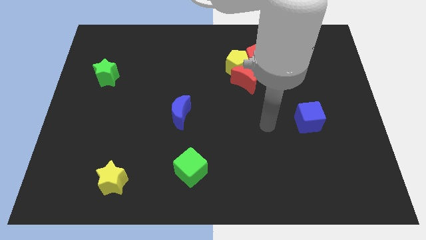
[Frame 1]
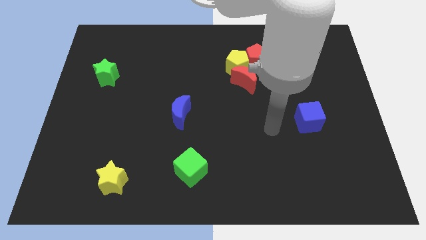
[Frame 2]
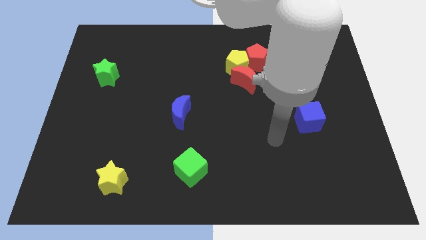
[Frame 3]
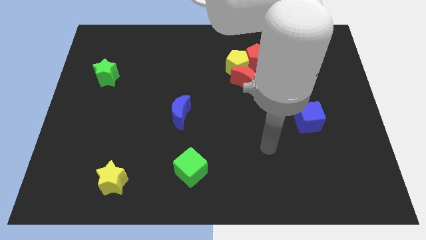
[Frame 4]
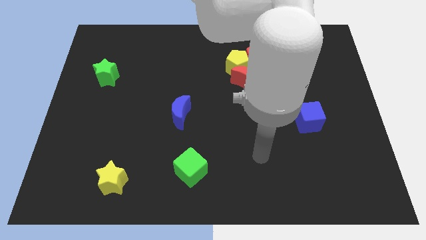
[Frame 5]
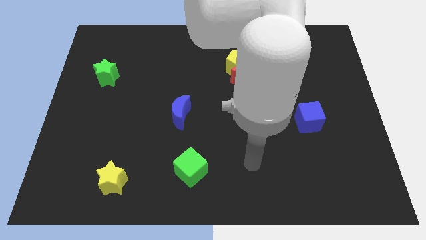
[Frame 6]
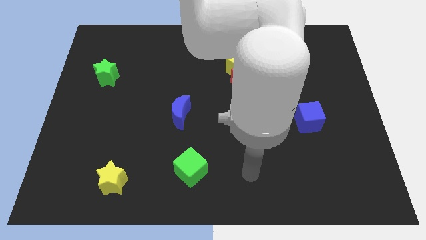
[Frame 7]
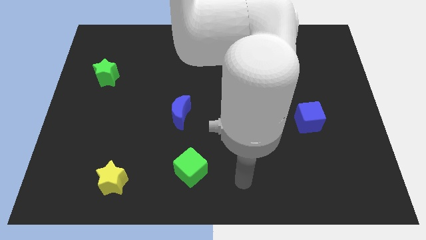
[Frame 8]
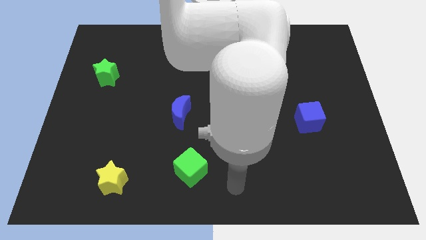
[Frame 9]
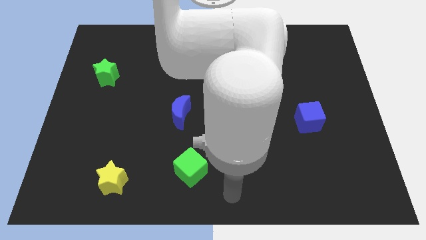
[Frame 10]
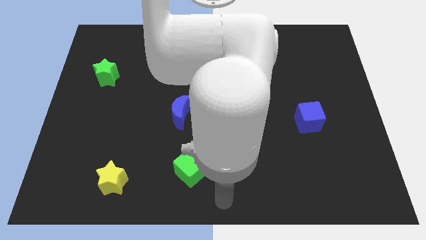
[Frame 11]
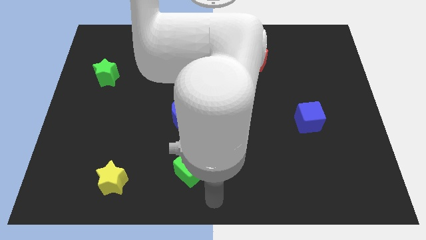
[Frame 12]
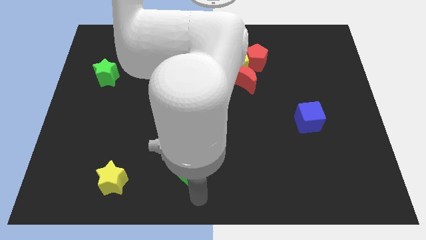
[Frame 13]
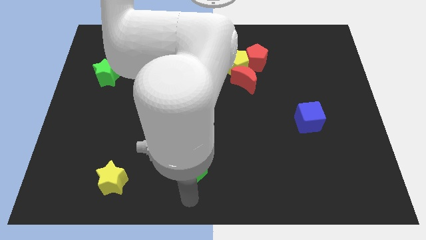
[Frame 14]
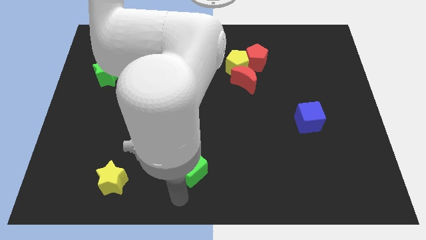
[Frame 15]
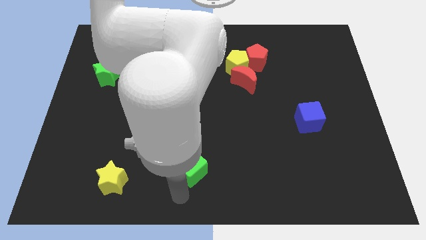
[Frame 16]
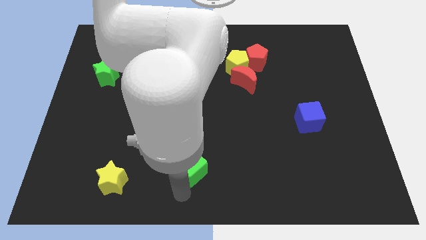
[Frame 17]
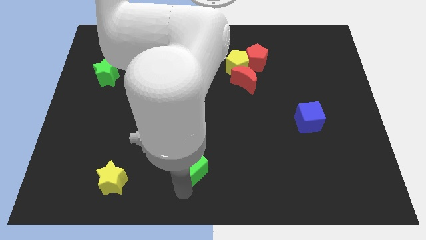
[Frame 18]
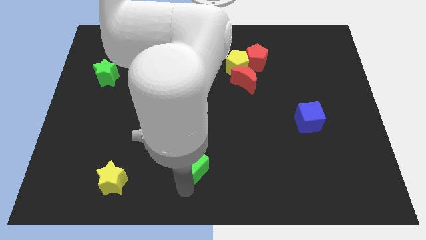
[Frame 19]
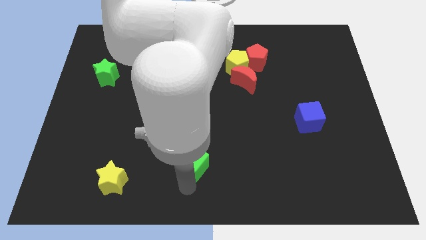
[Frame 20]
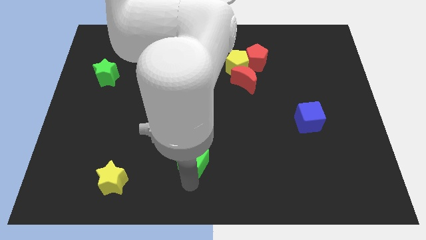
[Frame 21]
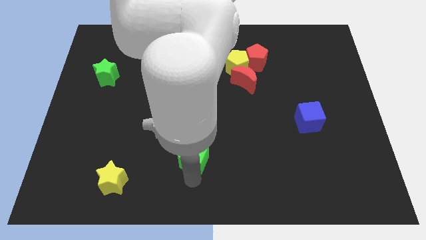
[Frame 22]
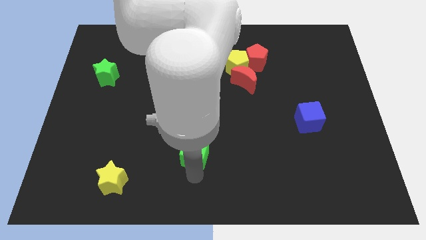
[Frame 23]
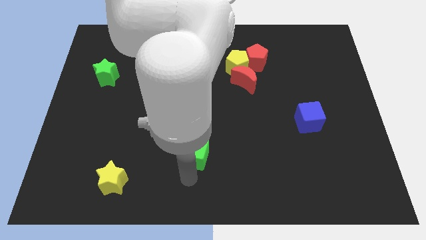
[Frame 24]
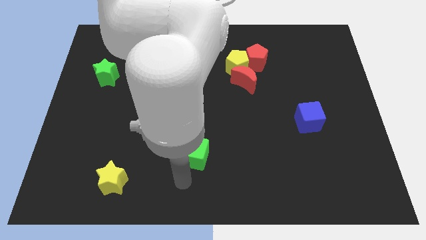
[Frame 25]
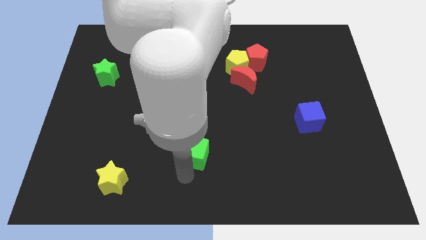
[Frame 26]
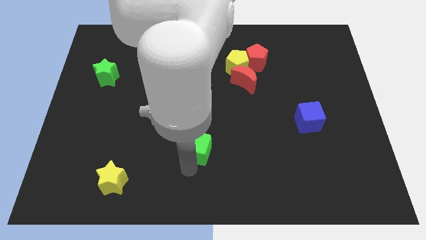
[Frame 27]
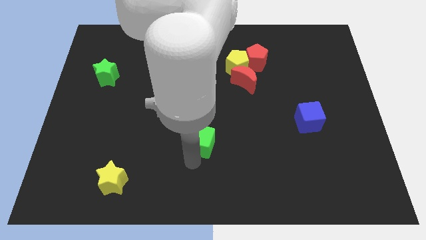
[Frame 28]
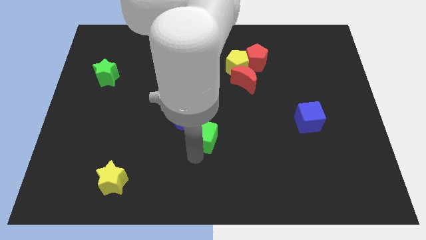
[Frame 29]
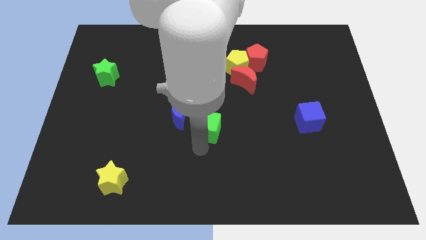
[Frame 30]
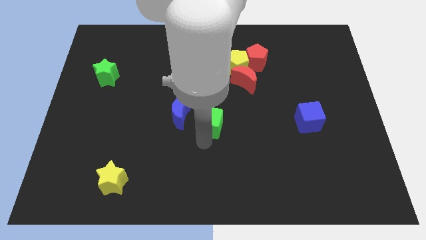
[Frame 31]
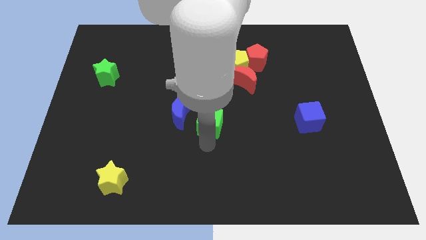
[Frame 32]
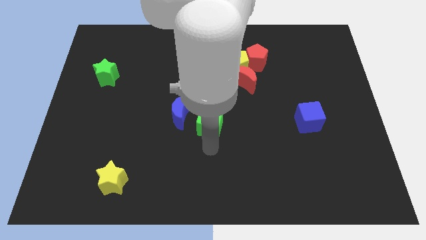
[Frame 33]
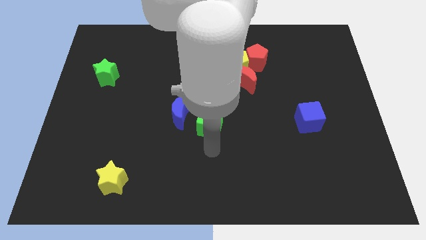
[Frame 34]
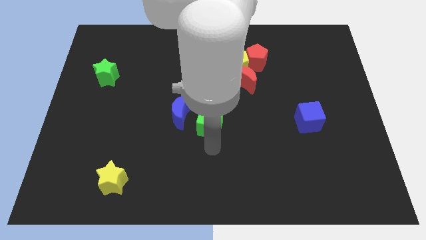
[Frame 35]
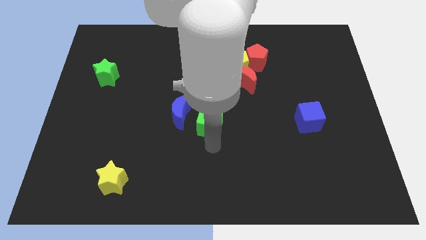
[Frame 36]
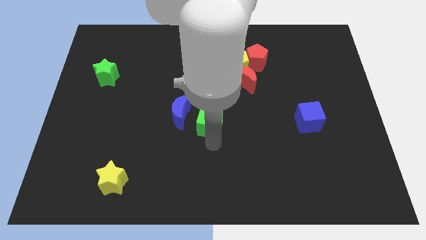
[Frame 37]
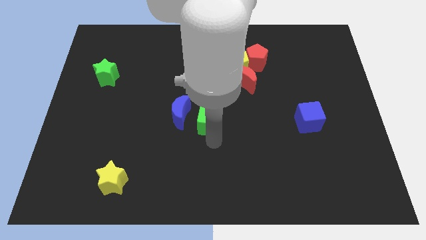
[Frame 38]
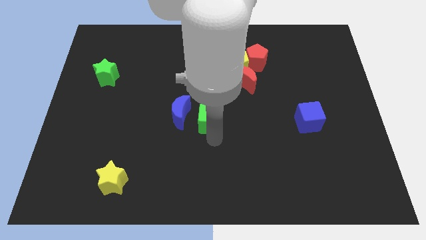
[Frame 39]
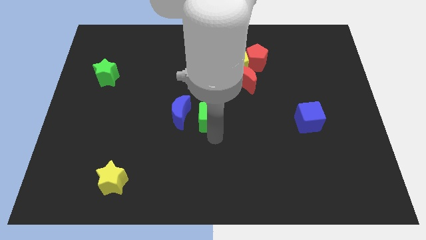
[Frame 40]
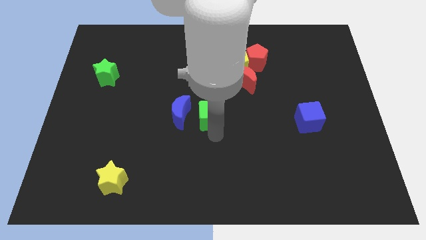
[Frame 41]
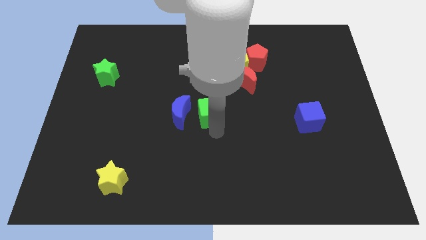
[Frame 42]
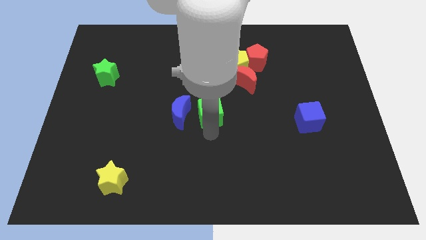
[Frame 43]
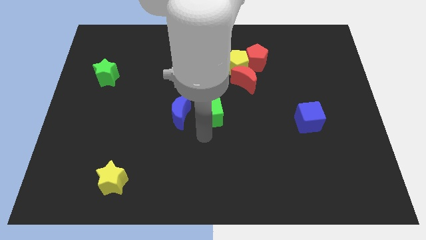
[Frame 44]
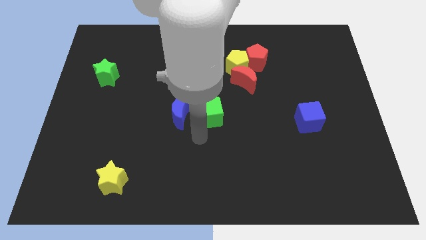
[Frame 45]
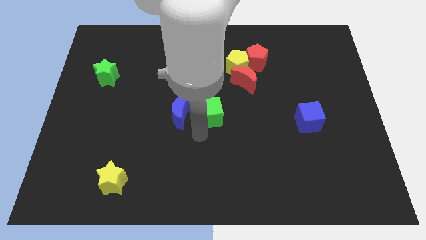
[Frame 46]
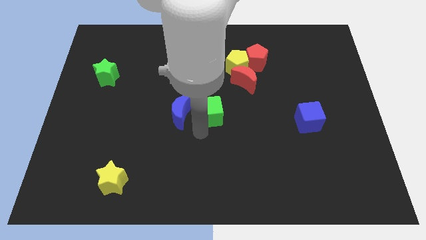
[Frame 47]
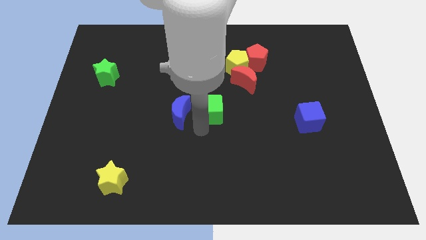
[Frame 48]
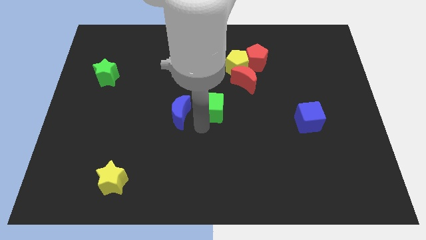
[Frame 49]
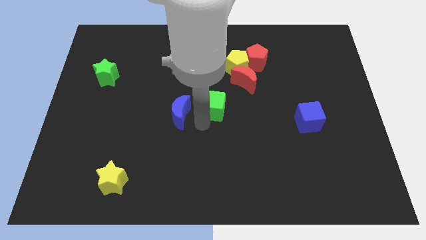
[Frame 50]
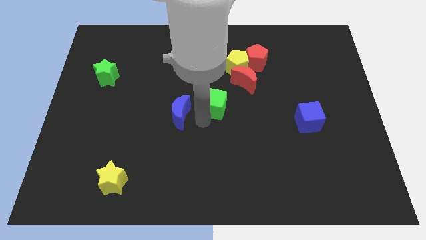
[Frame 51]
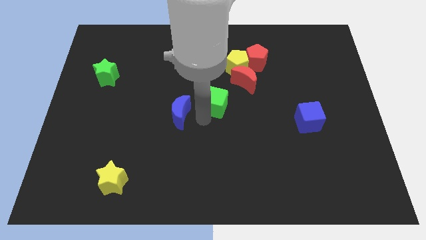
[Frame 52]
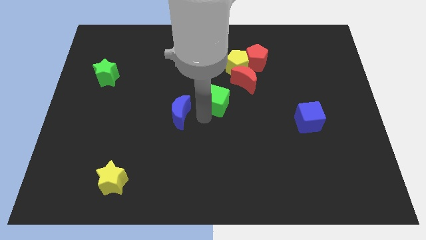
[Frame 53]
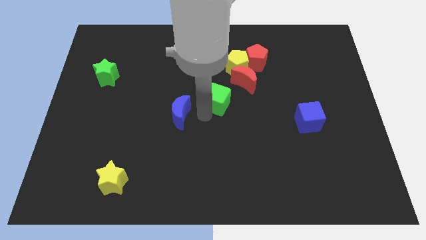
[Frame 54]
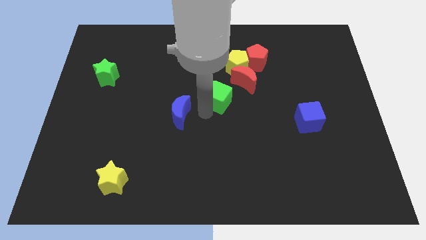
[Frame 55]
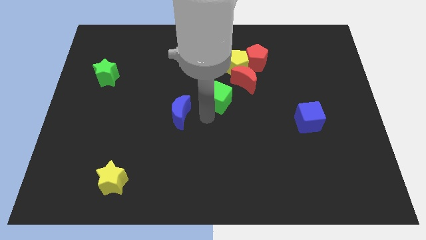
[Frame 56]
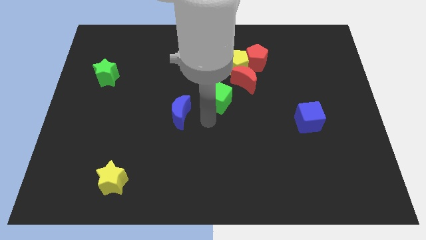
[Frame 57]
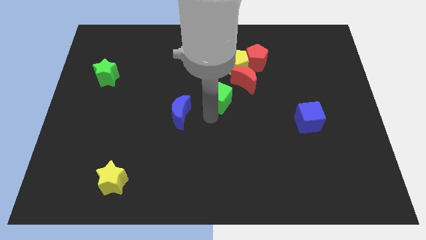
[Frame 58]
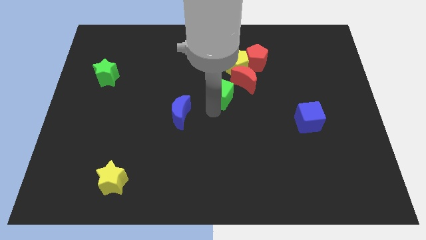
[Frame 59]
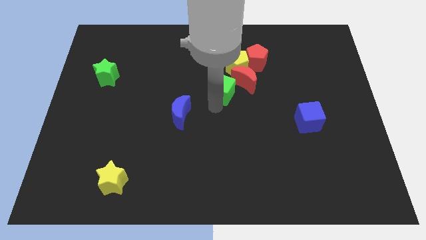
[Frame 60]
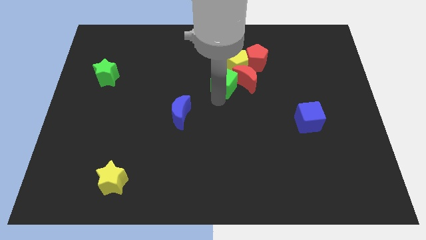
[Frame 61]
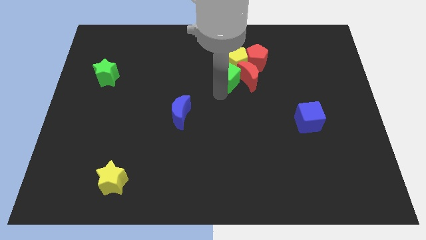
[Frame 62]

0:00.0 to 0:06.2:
put the green cube next to the yellow pentagon
